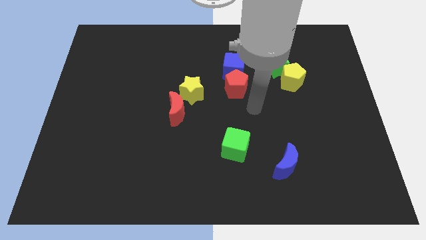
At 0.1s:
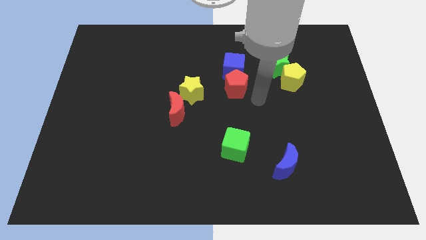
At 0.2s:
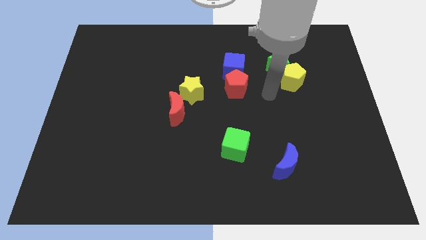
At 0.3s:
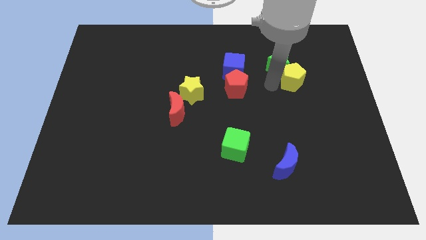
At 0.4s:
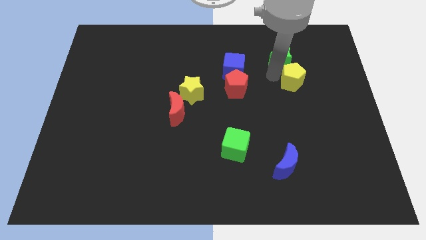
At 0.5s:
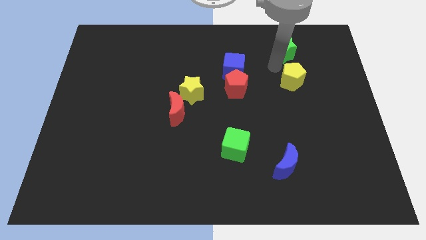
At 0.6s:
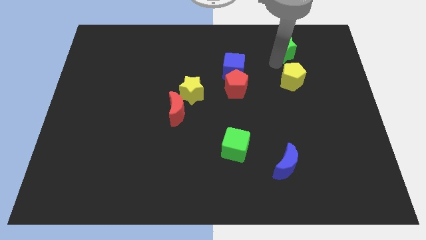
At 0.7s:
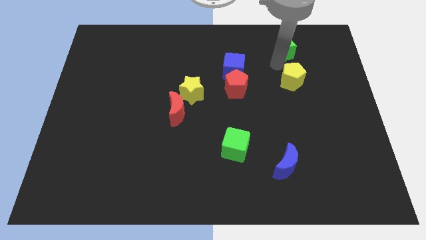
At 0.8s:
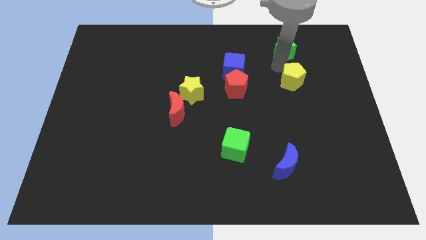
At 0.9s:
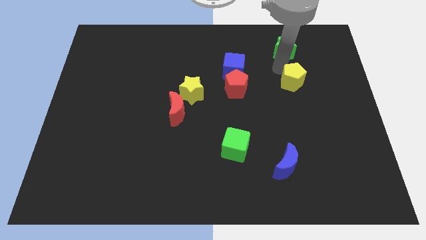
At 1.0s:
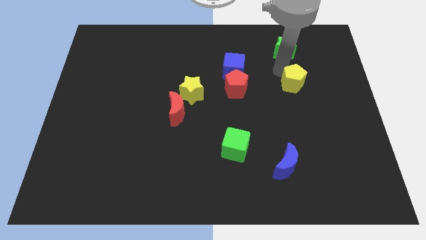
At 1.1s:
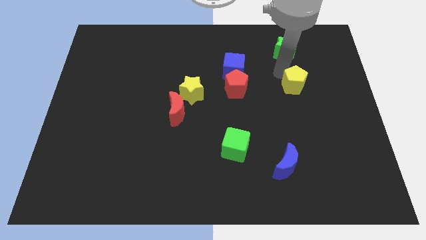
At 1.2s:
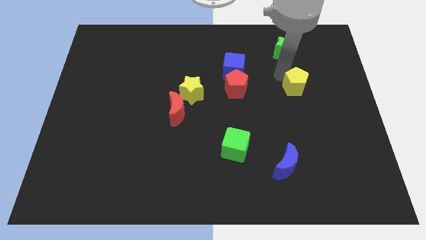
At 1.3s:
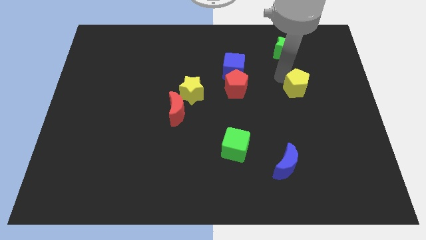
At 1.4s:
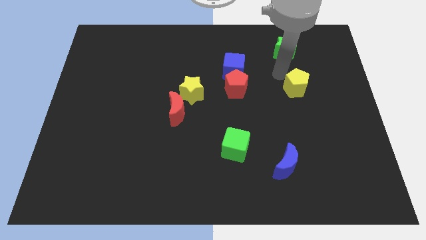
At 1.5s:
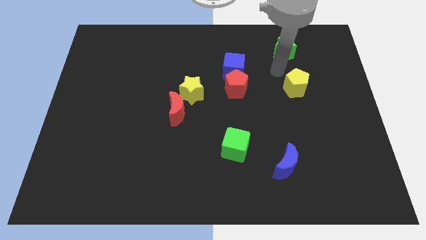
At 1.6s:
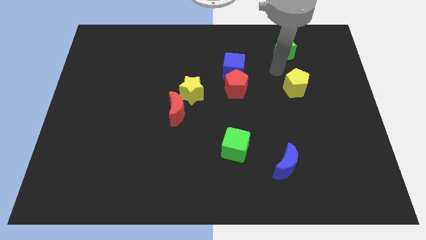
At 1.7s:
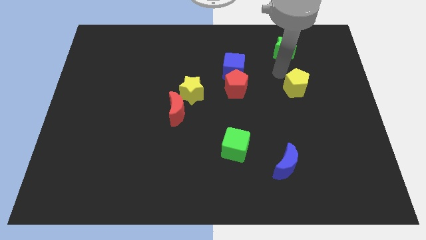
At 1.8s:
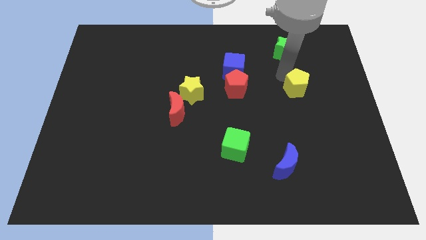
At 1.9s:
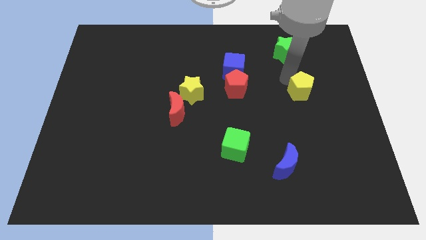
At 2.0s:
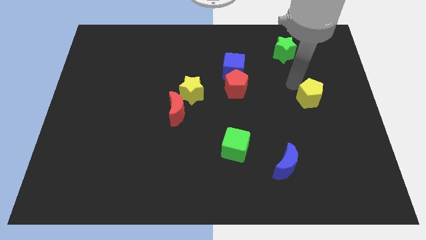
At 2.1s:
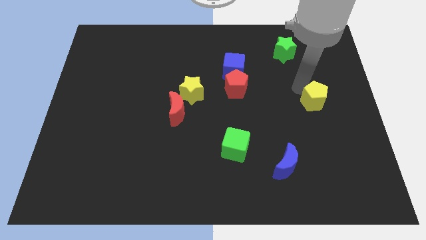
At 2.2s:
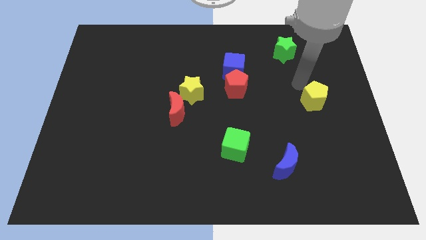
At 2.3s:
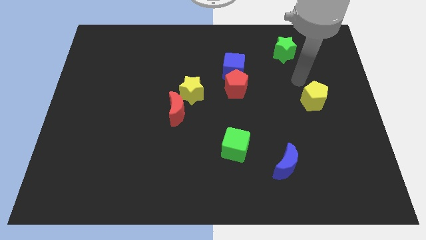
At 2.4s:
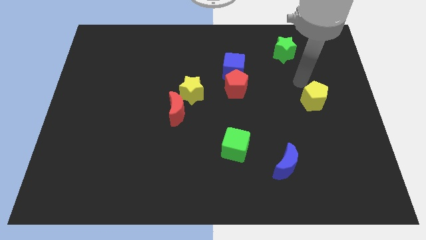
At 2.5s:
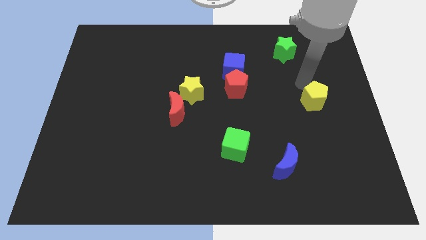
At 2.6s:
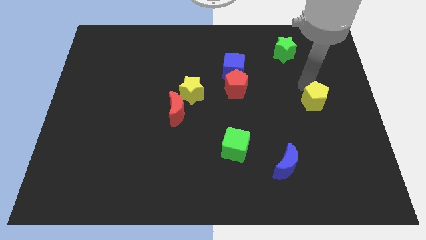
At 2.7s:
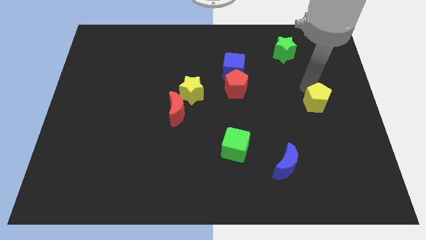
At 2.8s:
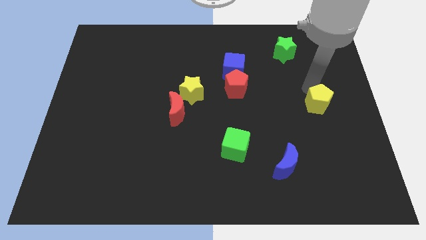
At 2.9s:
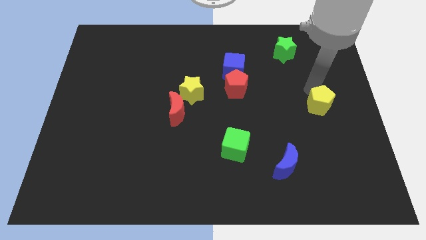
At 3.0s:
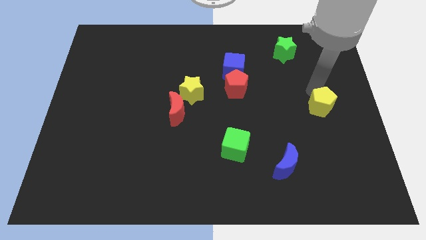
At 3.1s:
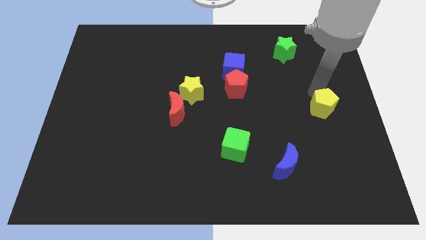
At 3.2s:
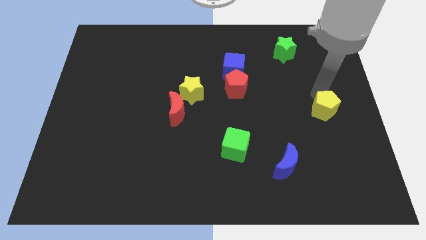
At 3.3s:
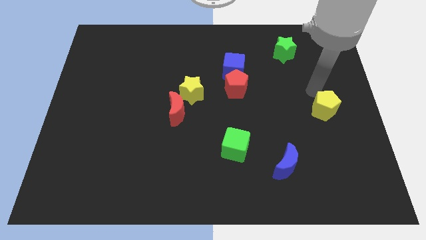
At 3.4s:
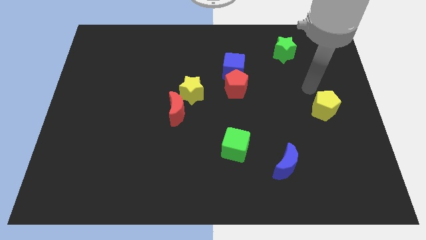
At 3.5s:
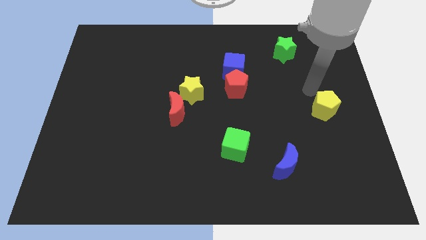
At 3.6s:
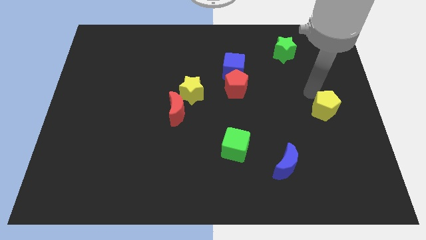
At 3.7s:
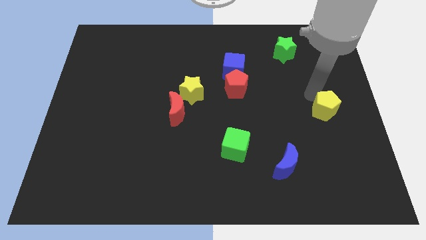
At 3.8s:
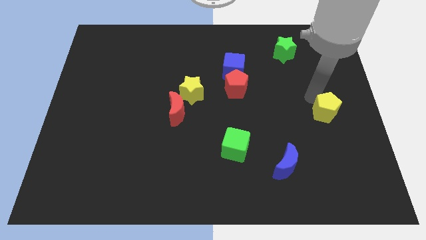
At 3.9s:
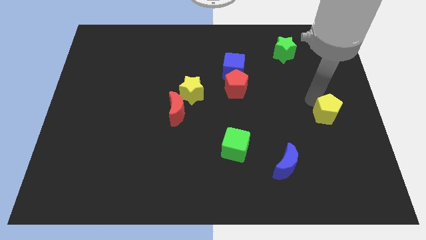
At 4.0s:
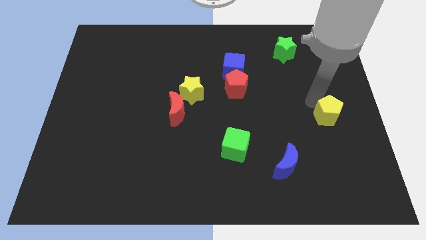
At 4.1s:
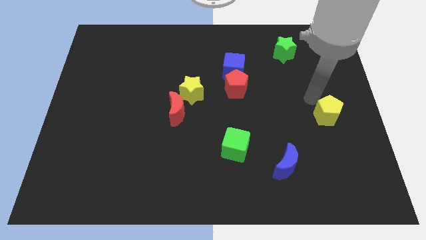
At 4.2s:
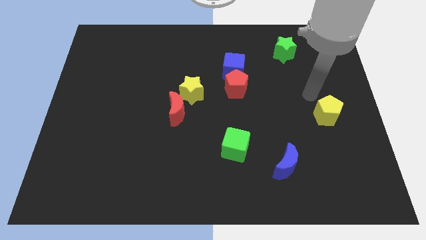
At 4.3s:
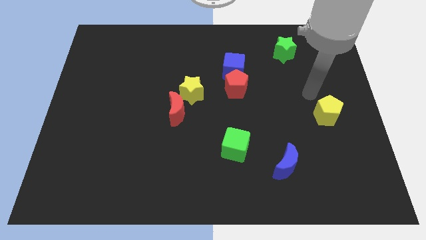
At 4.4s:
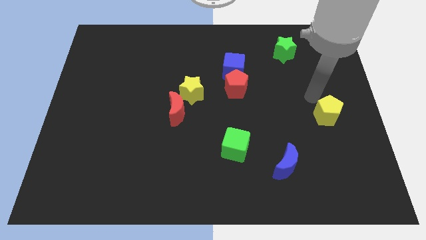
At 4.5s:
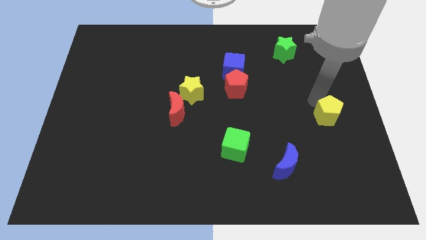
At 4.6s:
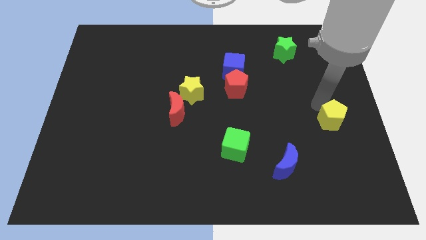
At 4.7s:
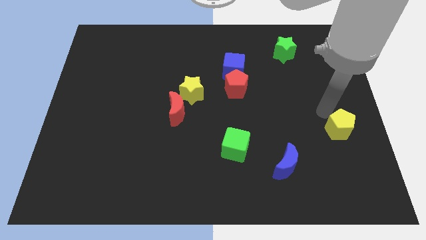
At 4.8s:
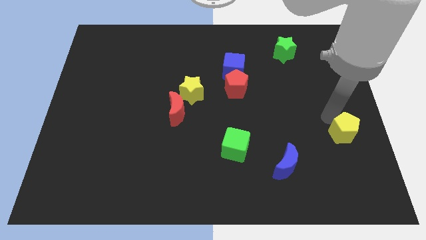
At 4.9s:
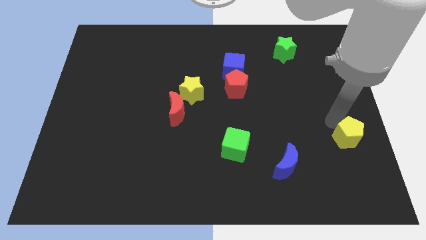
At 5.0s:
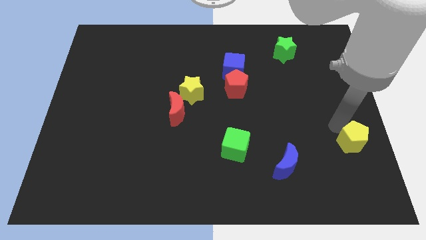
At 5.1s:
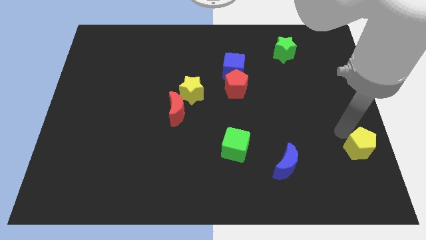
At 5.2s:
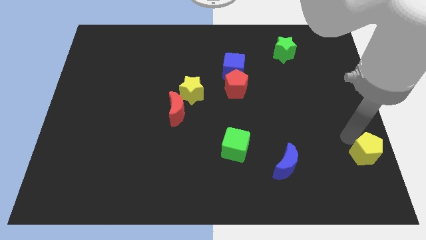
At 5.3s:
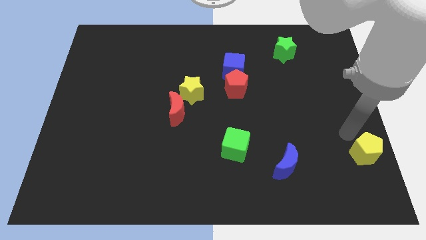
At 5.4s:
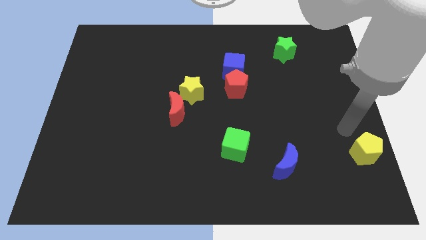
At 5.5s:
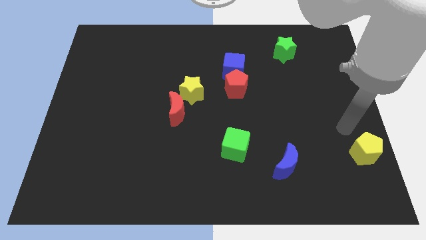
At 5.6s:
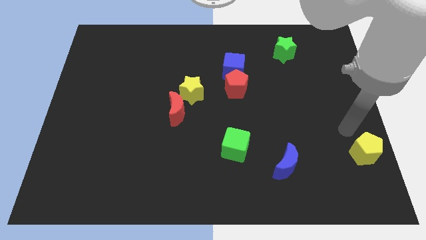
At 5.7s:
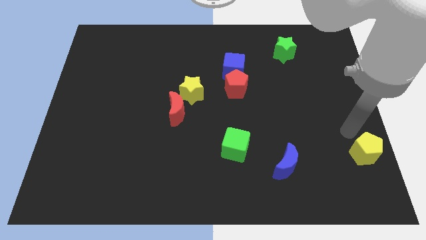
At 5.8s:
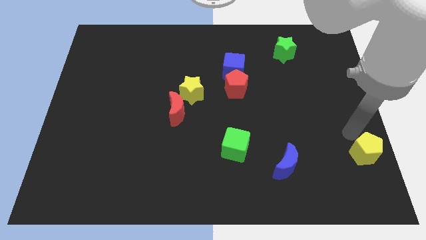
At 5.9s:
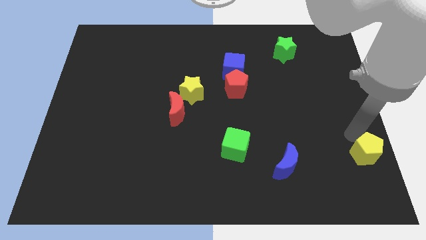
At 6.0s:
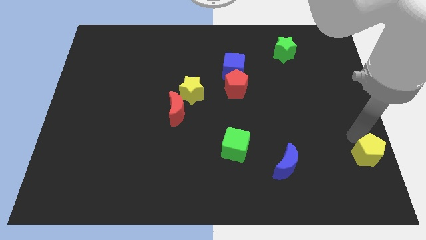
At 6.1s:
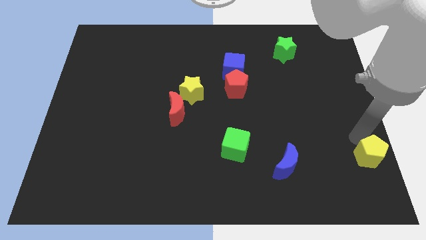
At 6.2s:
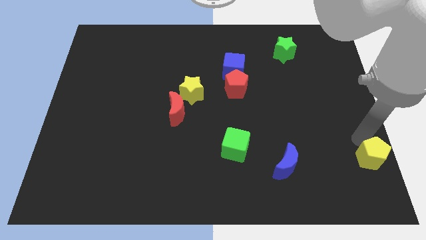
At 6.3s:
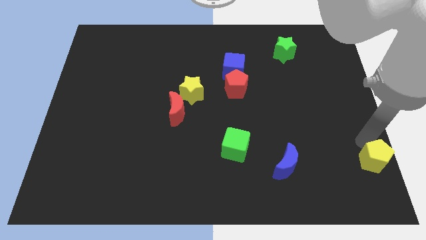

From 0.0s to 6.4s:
slide the yellow pentagon to the bottom right corner
